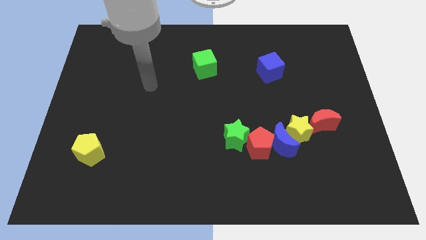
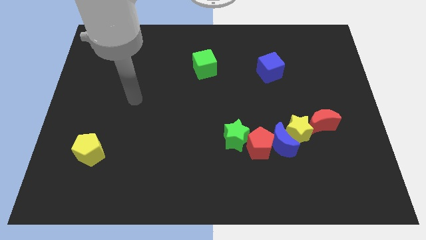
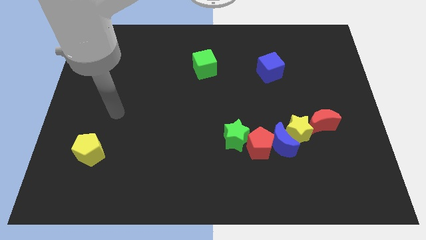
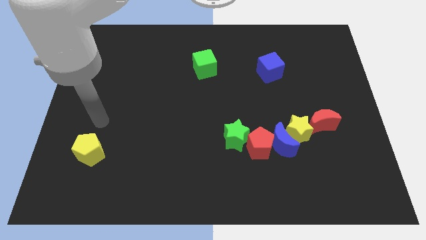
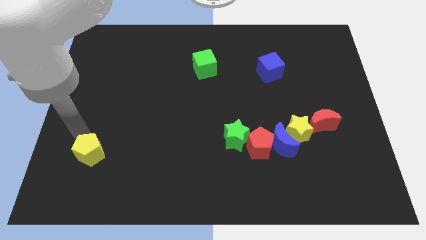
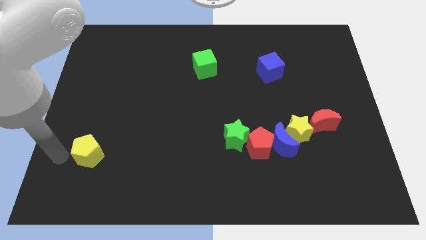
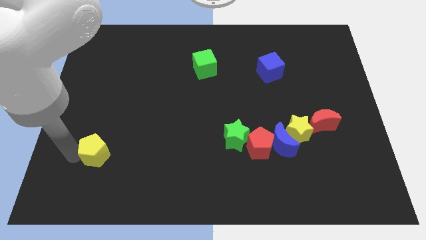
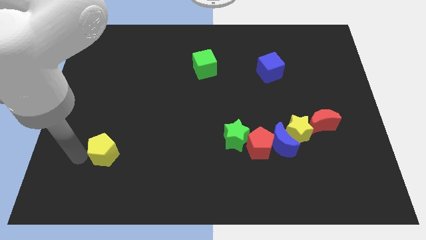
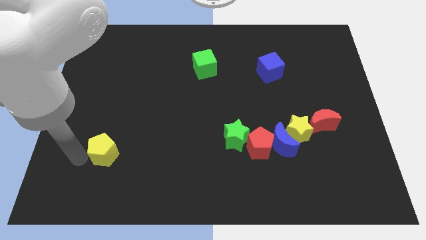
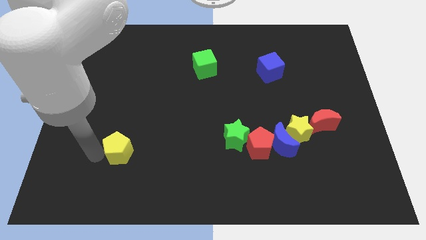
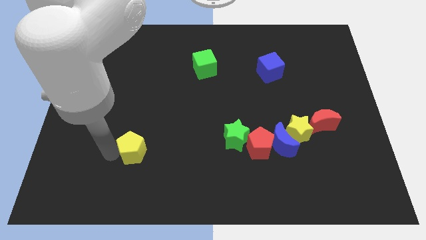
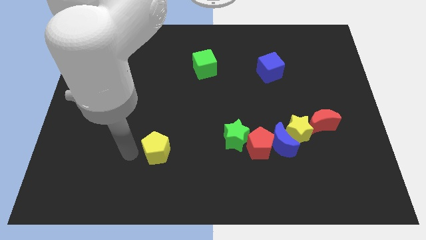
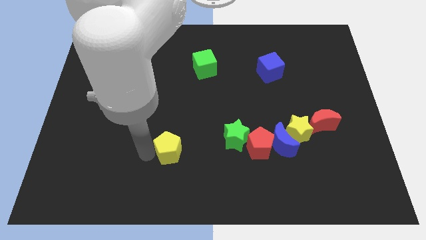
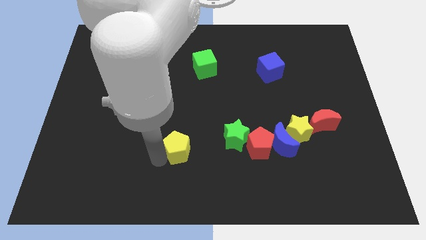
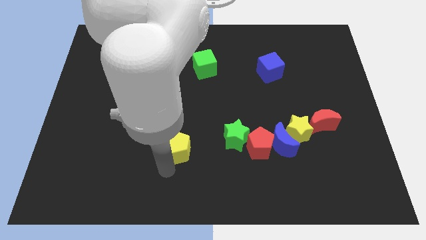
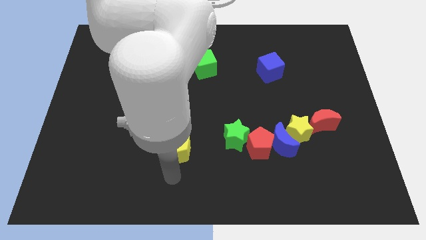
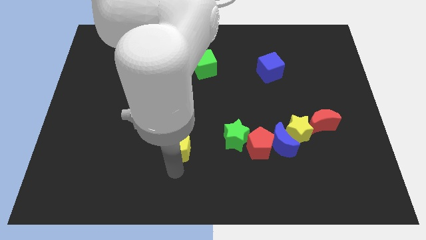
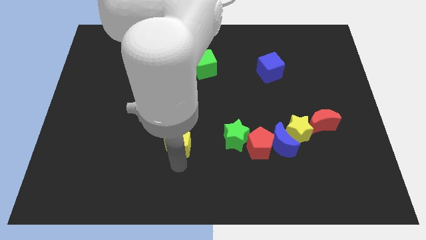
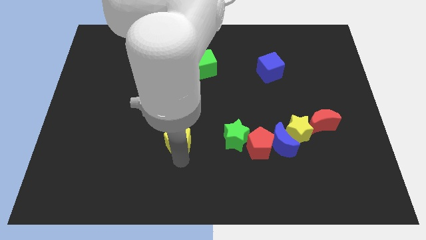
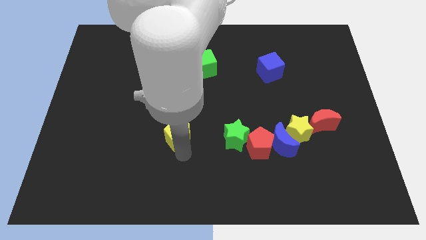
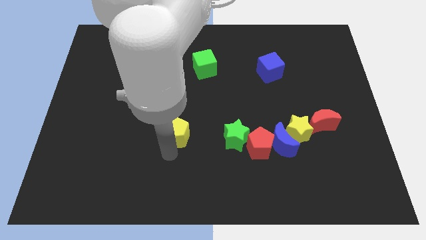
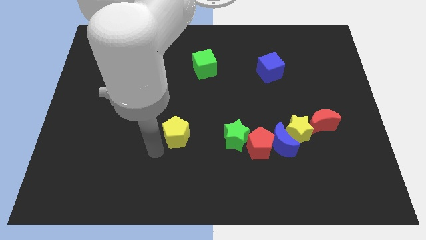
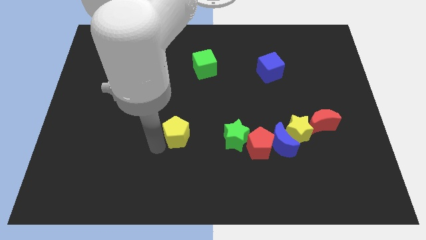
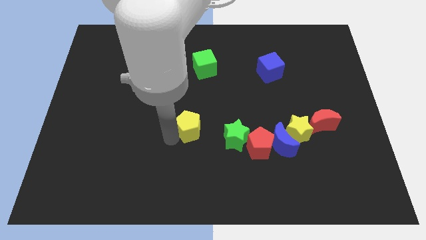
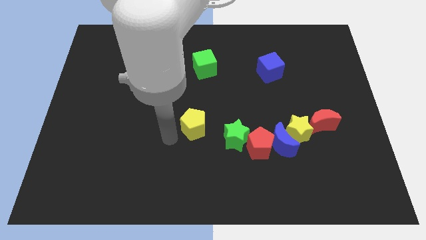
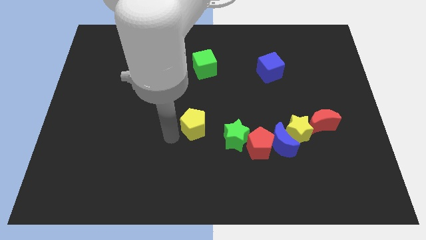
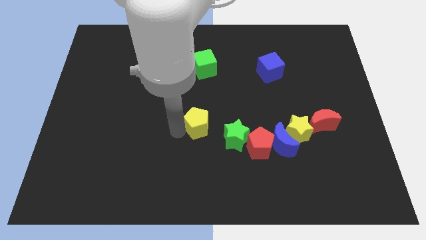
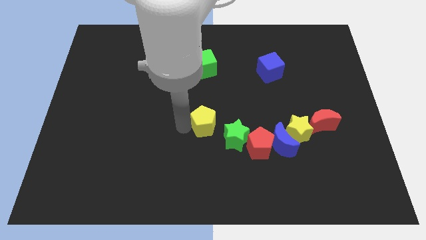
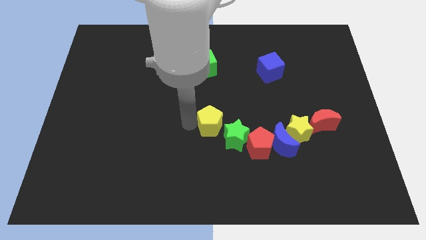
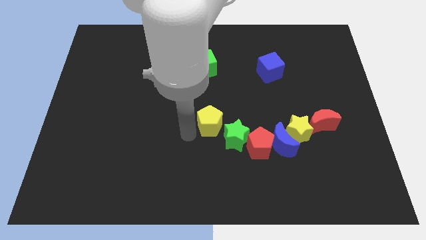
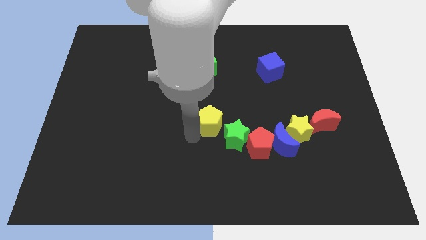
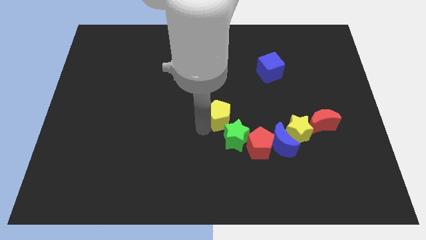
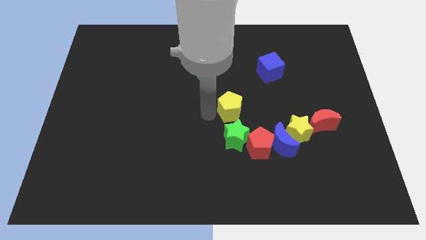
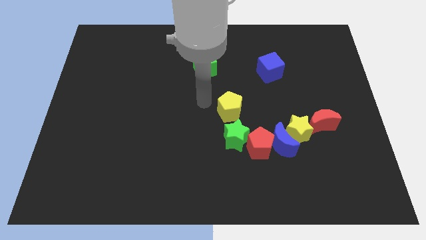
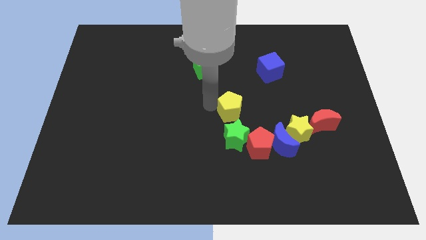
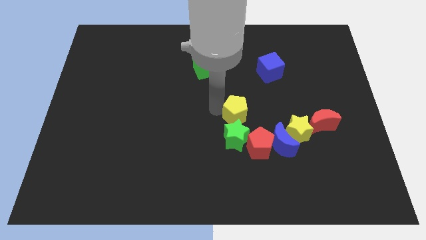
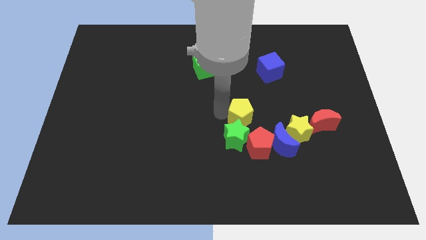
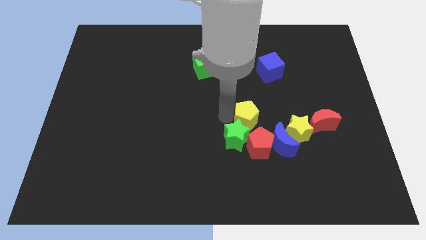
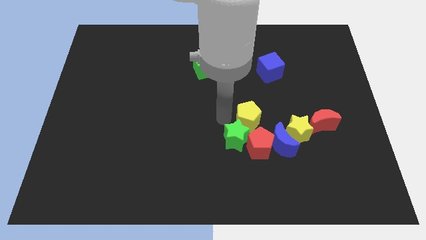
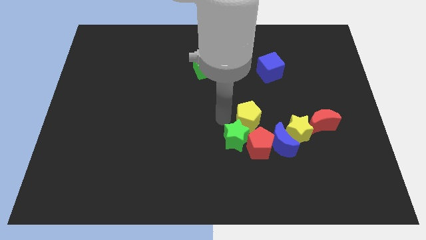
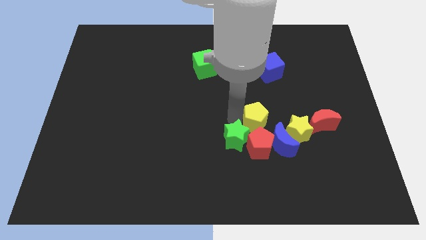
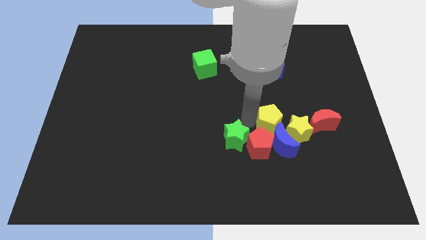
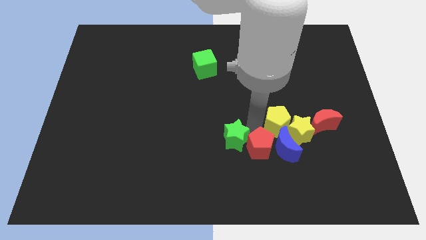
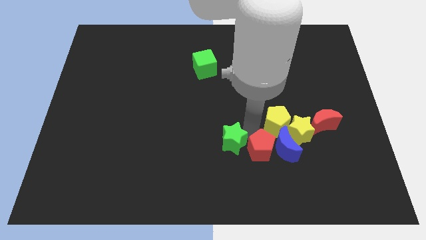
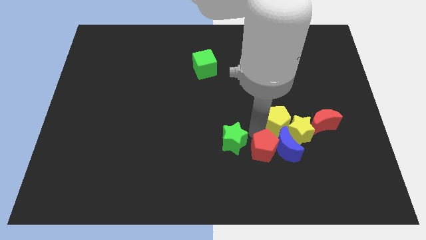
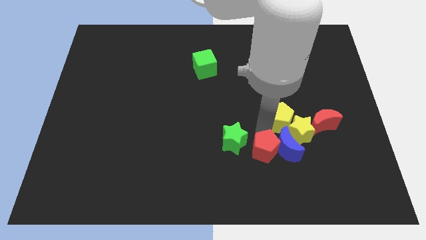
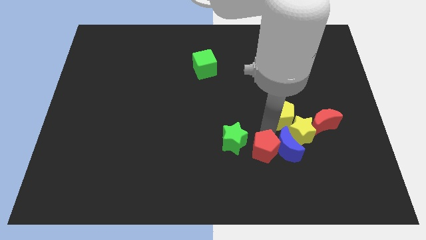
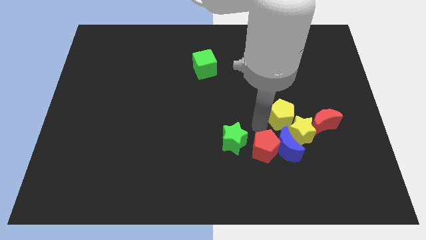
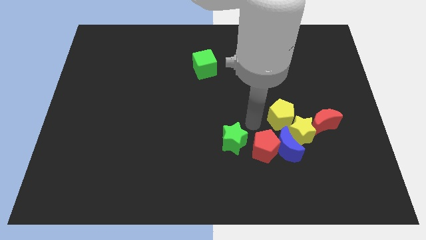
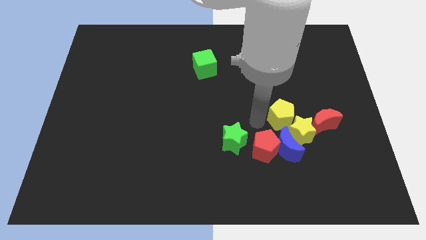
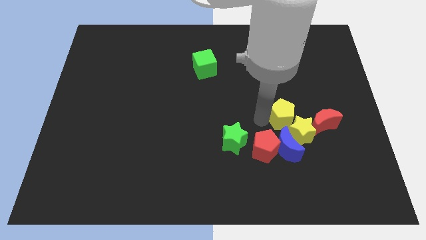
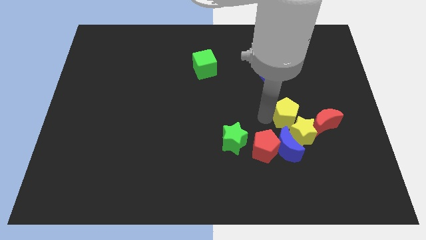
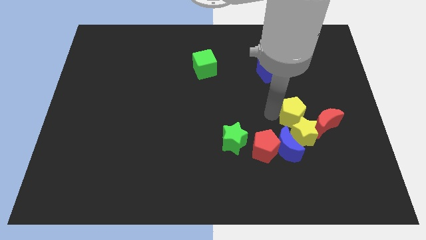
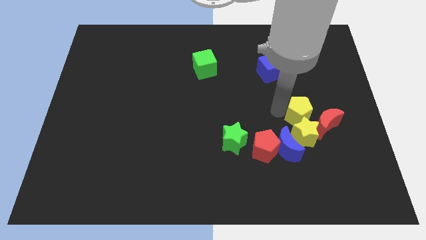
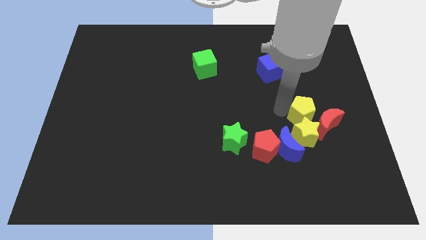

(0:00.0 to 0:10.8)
put the yellow pentagon to the red moon

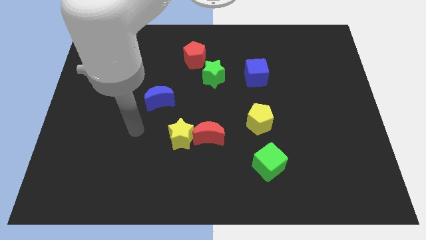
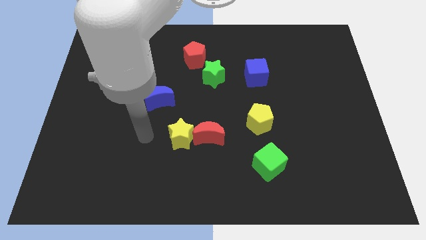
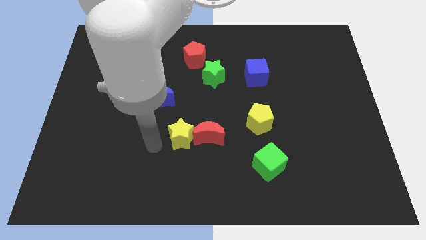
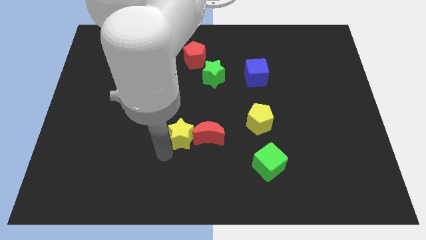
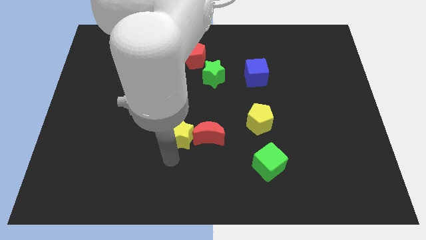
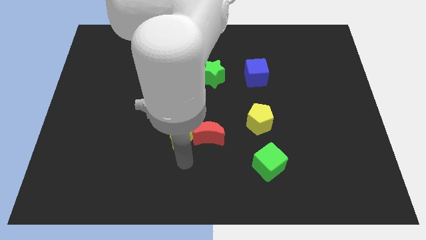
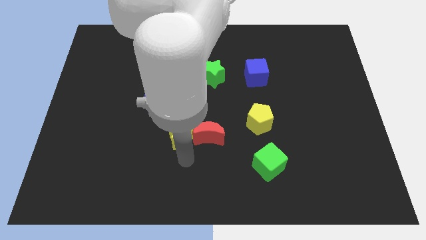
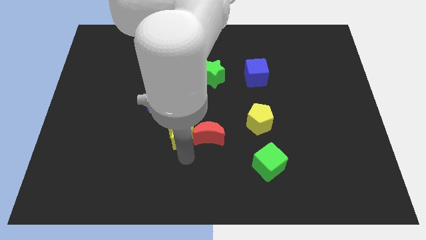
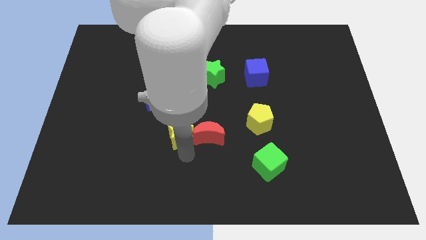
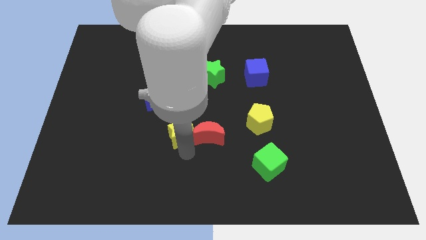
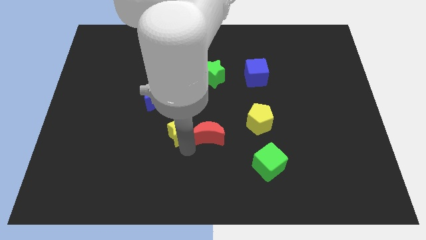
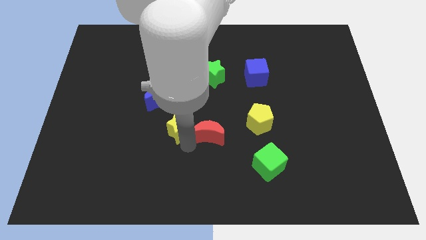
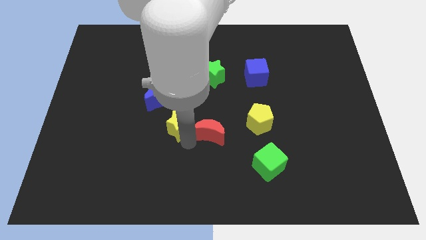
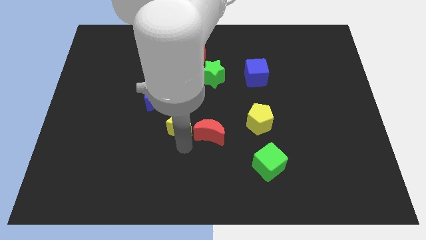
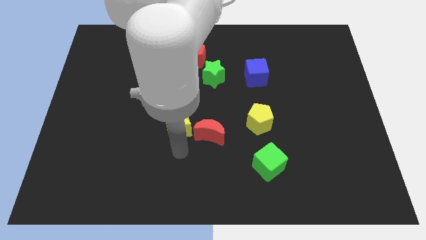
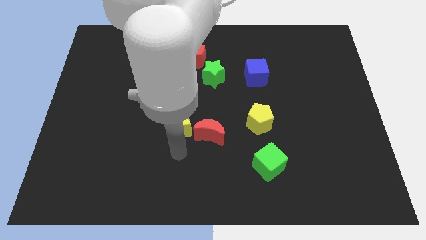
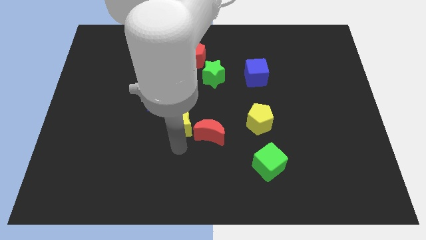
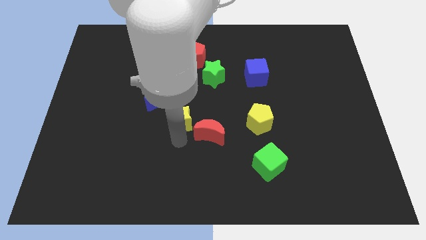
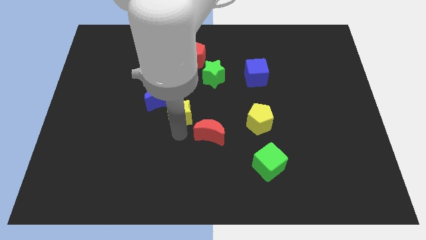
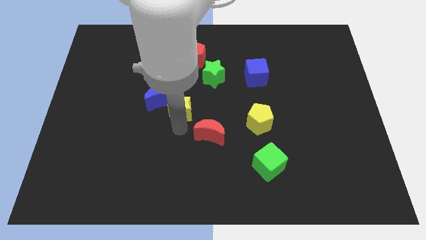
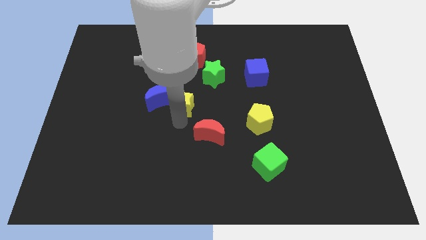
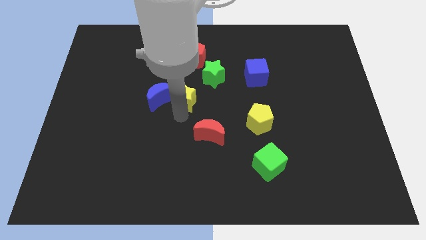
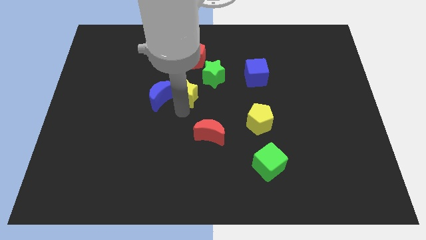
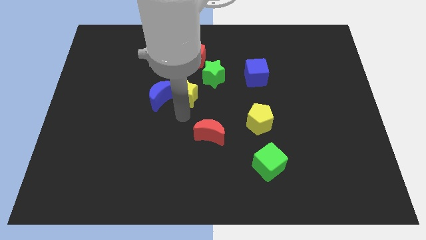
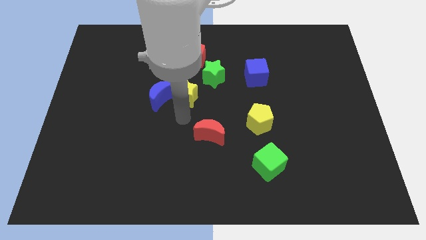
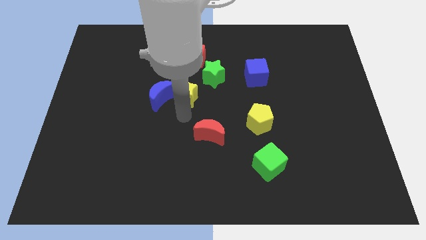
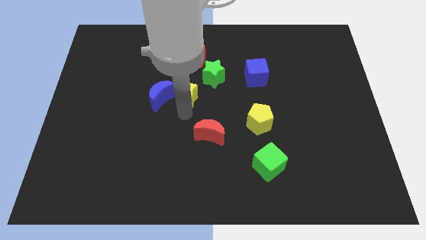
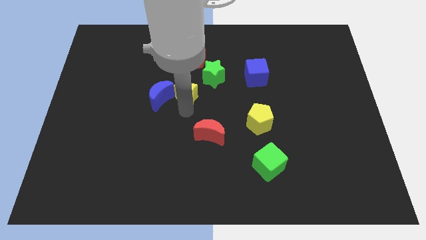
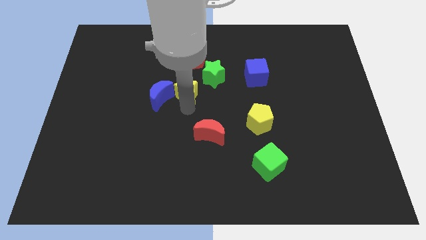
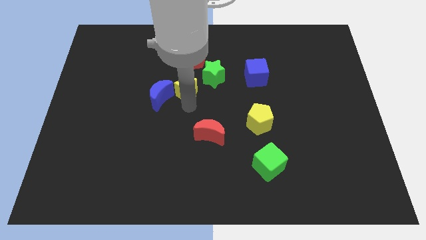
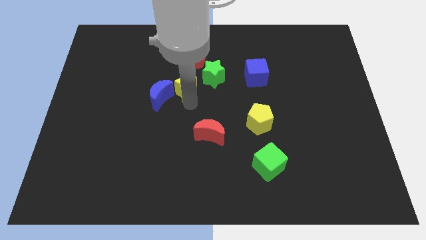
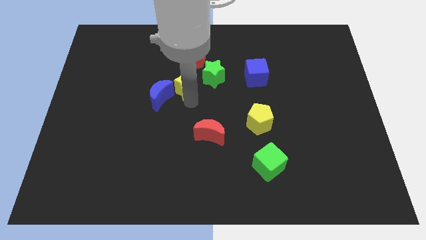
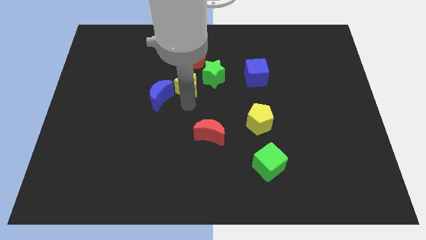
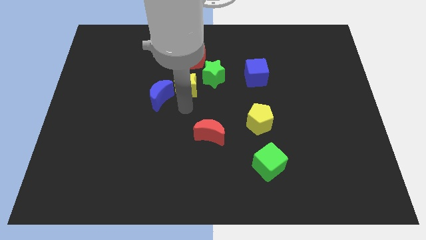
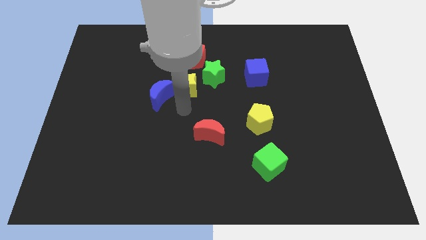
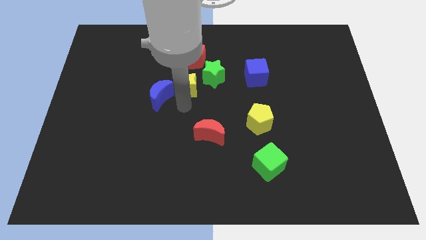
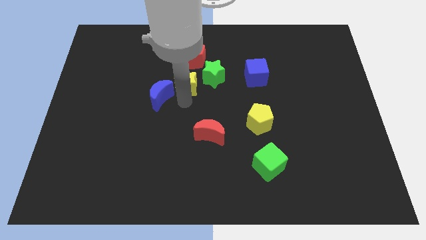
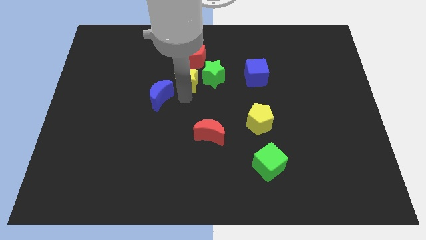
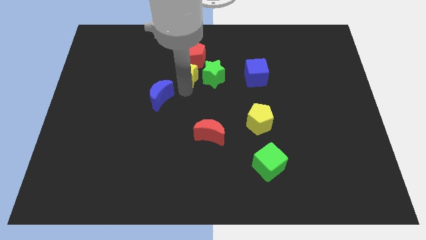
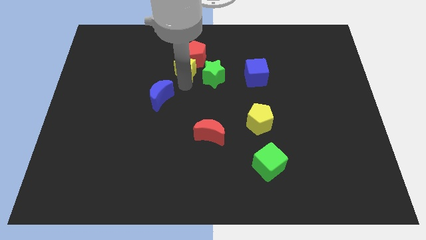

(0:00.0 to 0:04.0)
slide the yellow star towards the red pentagon
